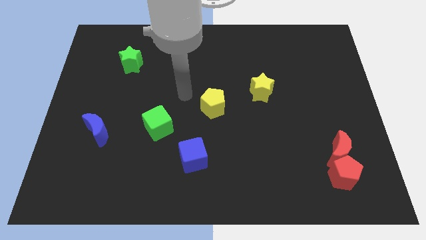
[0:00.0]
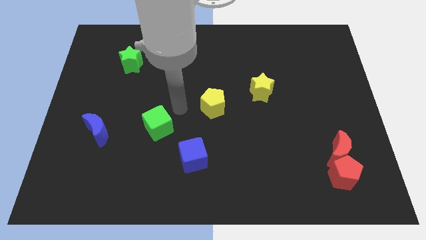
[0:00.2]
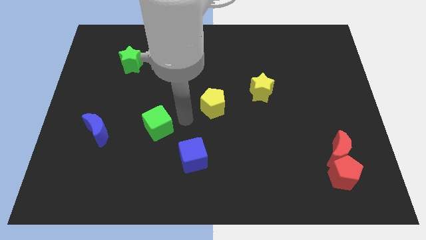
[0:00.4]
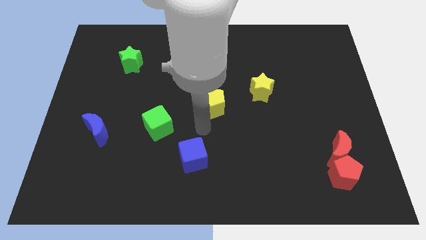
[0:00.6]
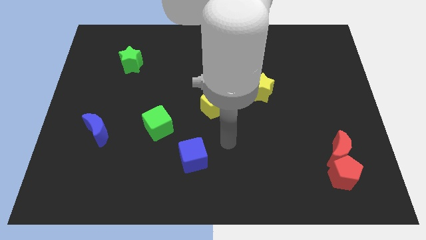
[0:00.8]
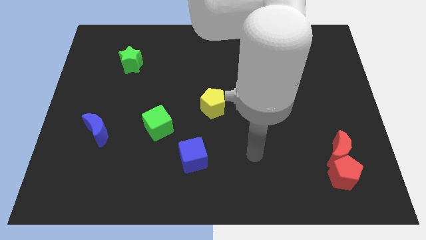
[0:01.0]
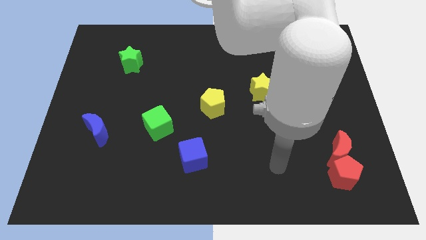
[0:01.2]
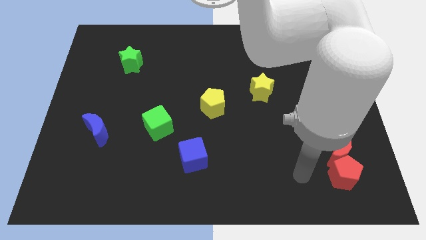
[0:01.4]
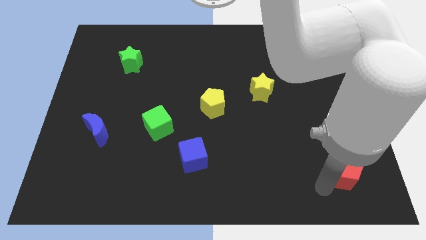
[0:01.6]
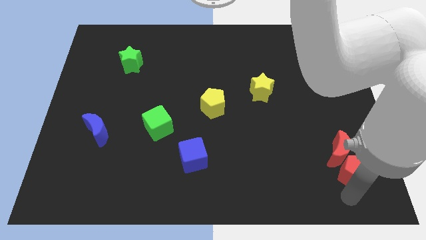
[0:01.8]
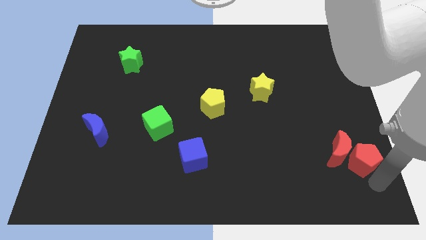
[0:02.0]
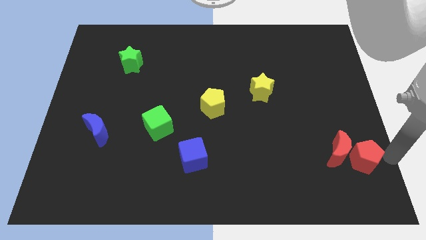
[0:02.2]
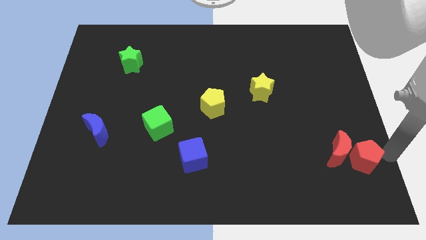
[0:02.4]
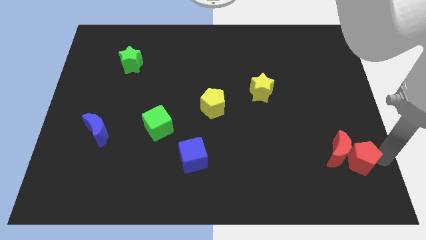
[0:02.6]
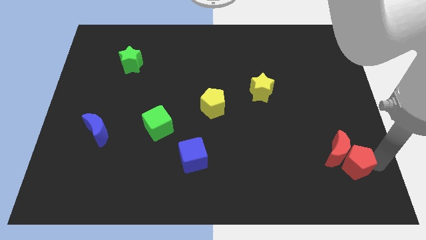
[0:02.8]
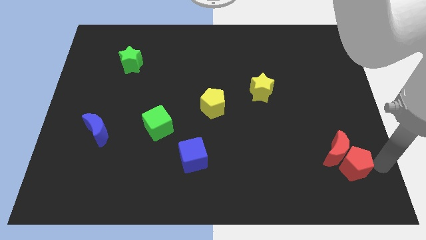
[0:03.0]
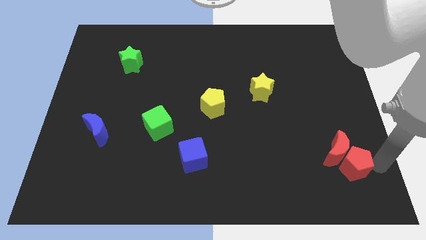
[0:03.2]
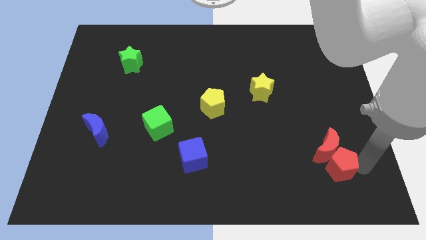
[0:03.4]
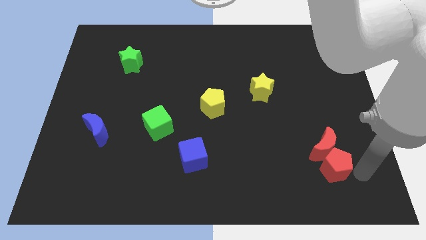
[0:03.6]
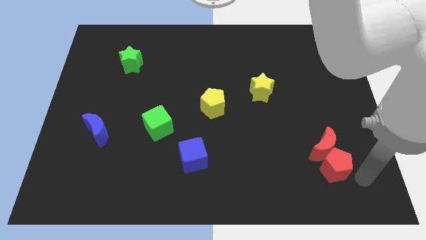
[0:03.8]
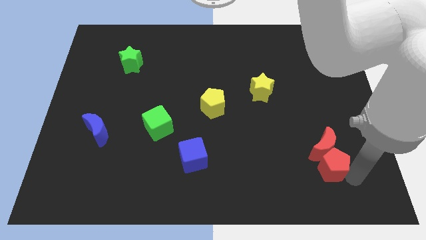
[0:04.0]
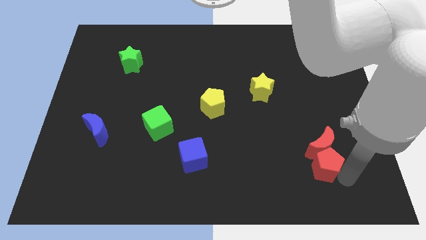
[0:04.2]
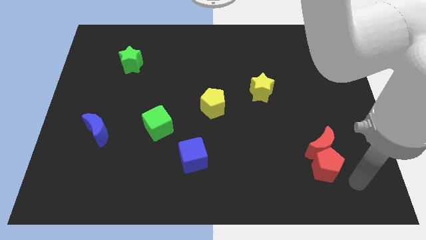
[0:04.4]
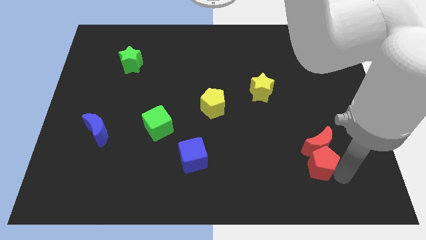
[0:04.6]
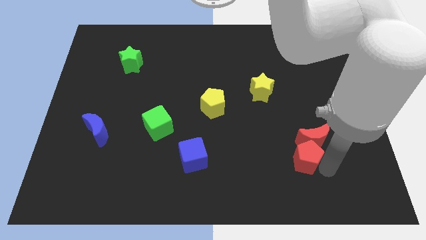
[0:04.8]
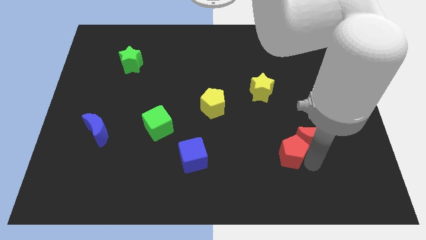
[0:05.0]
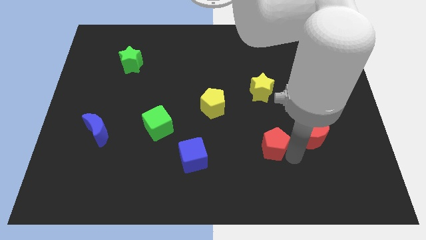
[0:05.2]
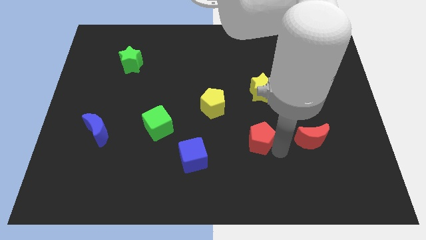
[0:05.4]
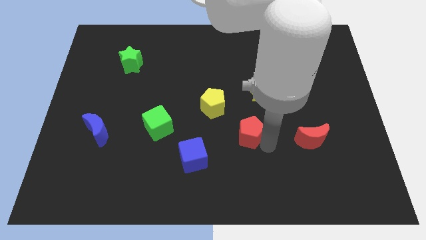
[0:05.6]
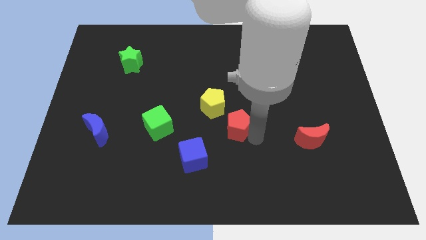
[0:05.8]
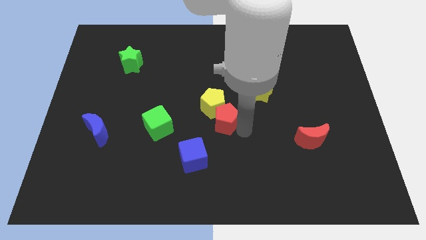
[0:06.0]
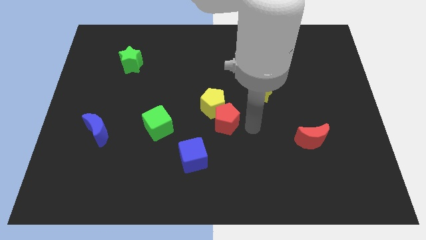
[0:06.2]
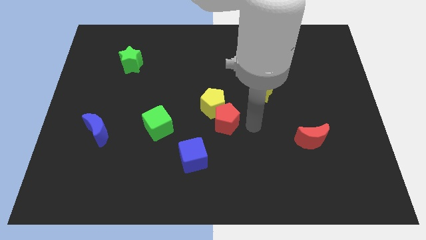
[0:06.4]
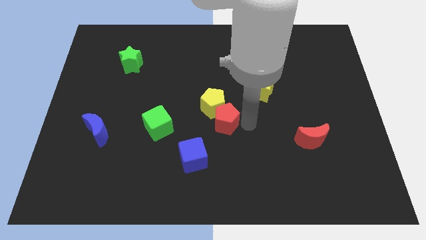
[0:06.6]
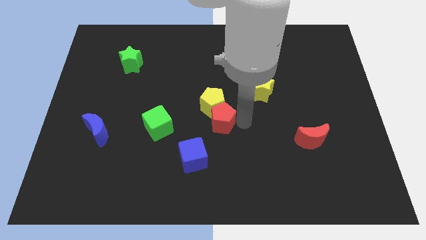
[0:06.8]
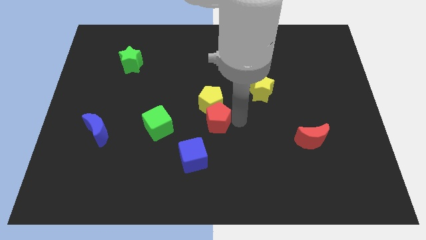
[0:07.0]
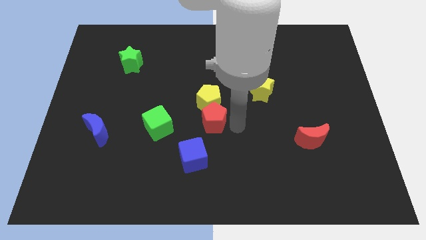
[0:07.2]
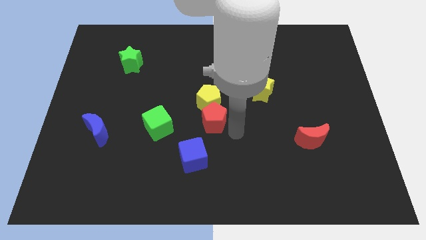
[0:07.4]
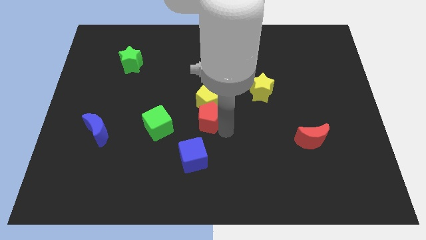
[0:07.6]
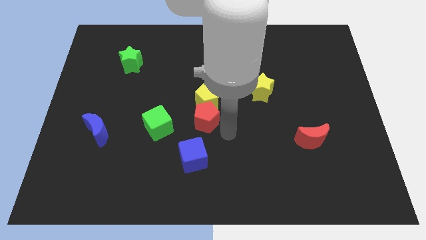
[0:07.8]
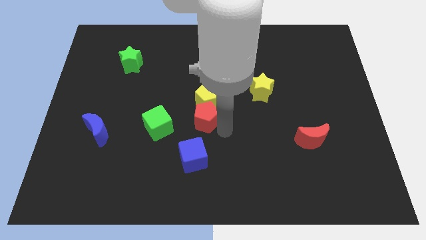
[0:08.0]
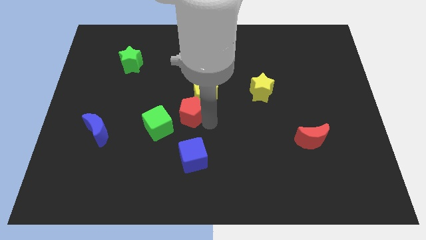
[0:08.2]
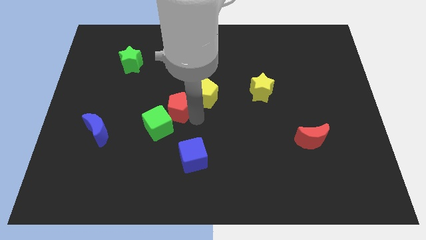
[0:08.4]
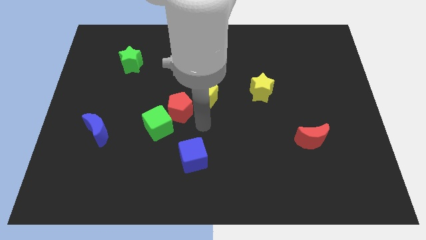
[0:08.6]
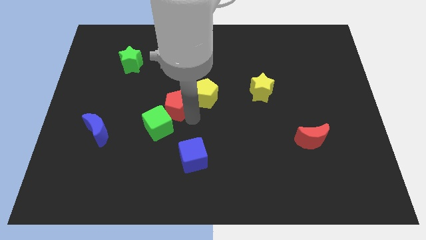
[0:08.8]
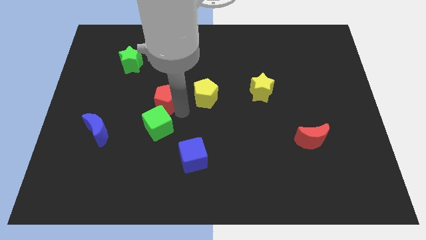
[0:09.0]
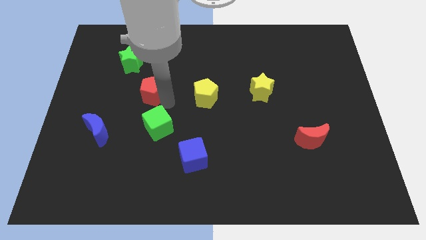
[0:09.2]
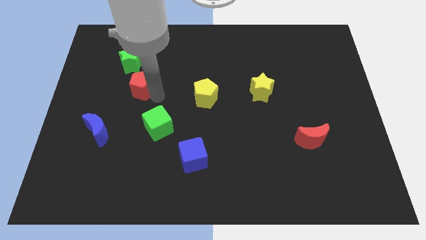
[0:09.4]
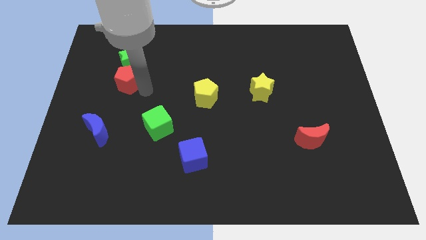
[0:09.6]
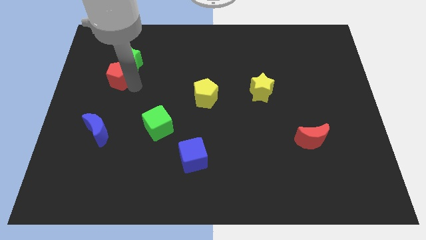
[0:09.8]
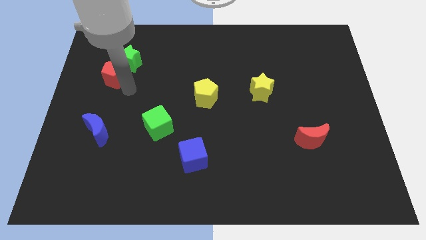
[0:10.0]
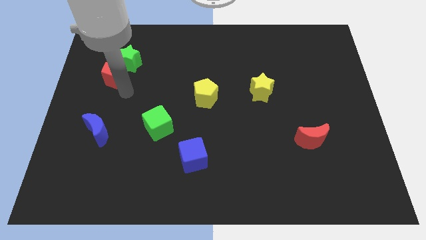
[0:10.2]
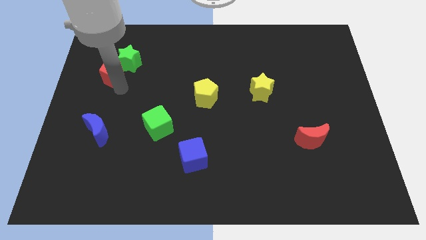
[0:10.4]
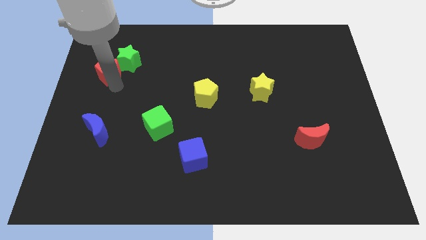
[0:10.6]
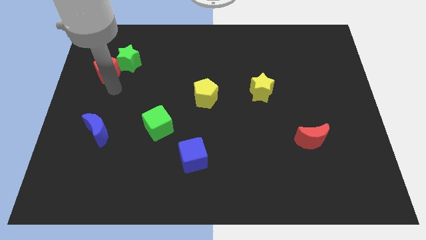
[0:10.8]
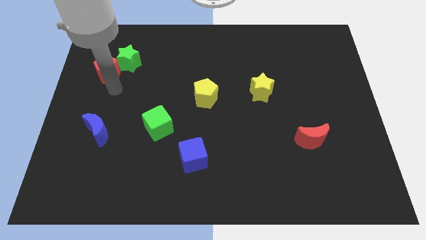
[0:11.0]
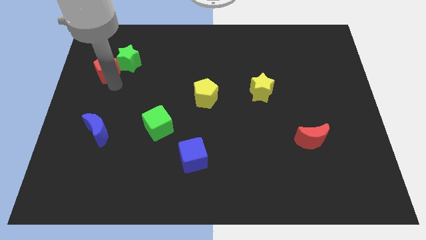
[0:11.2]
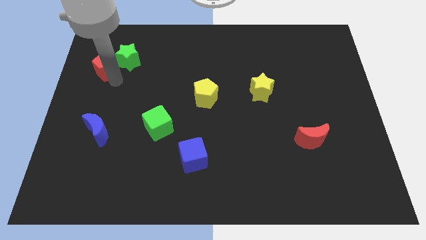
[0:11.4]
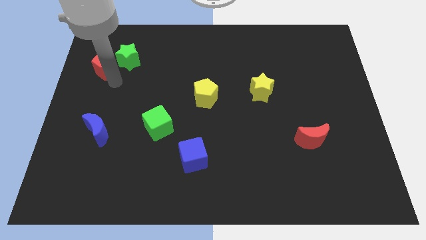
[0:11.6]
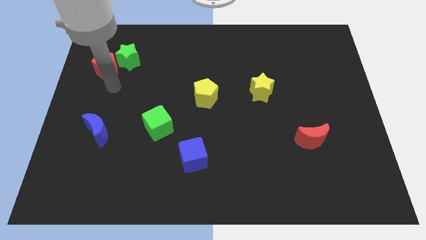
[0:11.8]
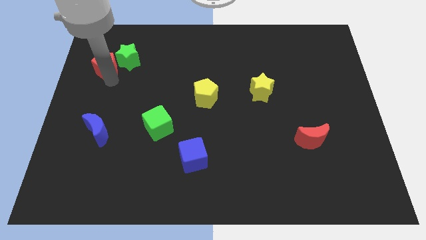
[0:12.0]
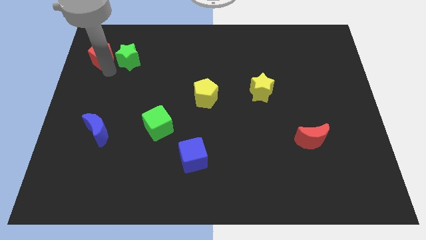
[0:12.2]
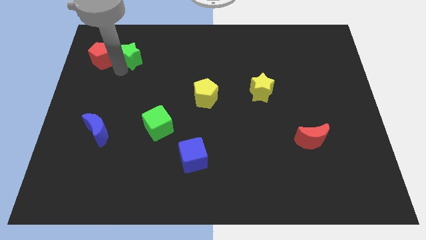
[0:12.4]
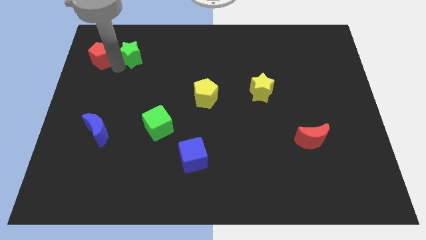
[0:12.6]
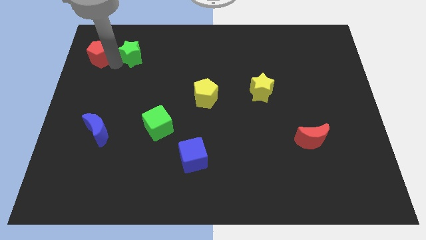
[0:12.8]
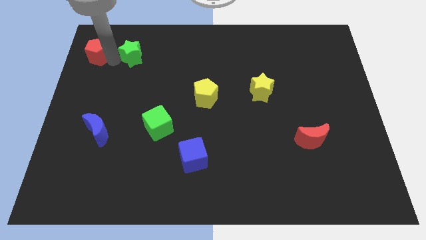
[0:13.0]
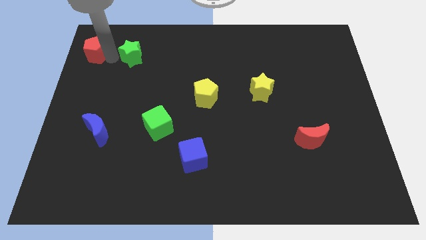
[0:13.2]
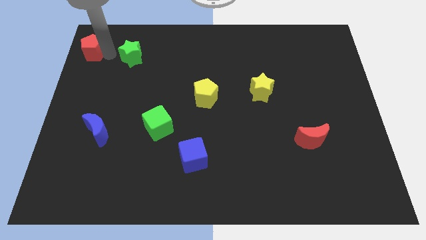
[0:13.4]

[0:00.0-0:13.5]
put the red pentagon to the top left of the board

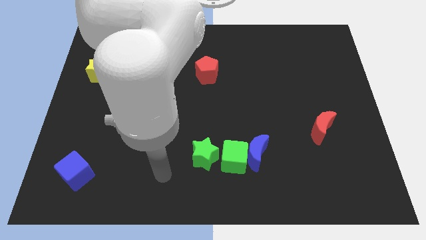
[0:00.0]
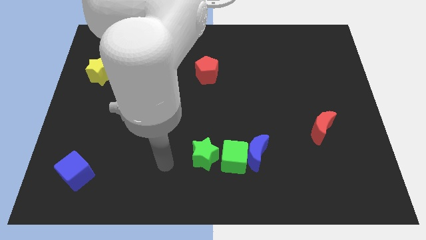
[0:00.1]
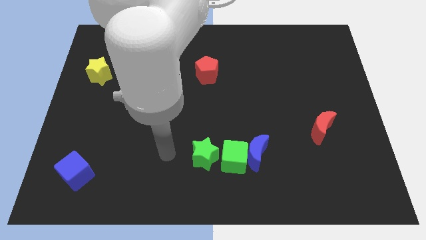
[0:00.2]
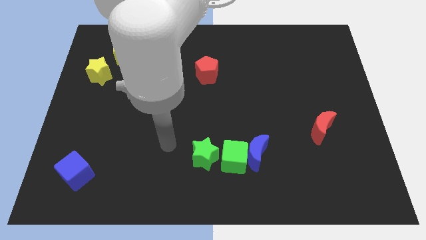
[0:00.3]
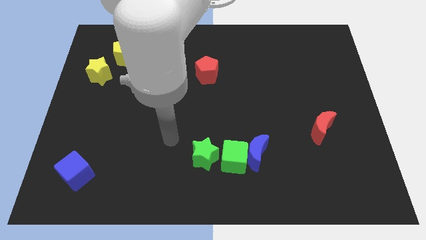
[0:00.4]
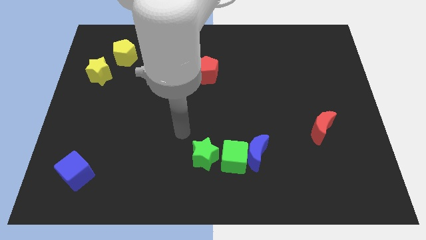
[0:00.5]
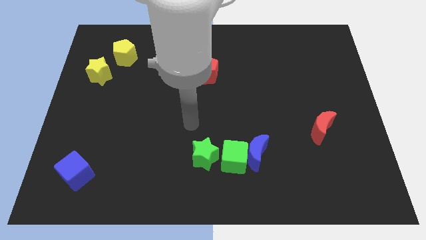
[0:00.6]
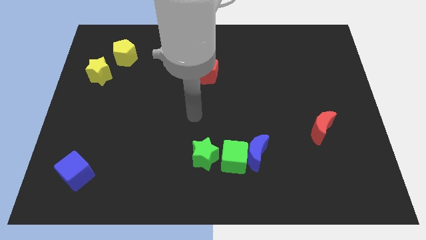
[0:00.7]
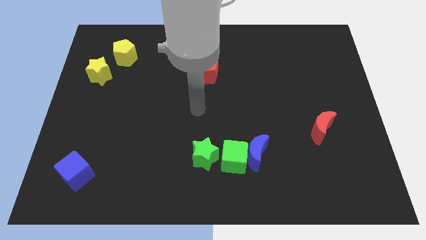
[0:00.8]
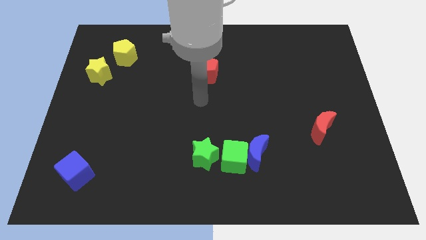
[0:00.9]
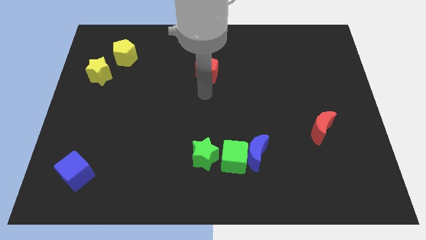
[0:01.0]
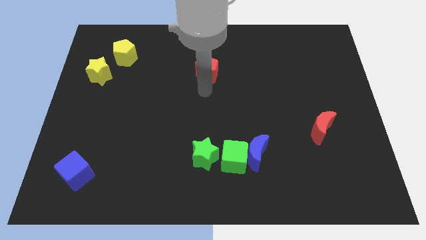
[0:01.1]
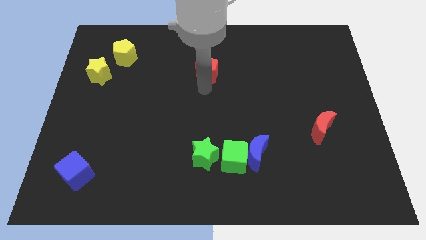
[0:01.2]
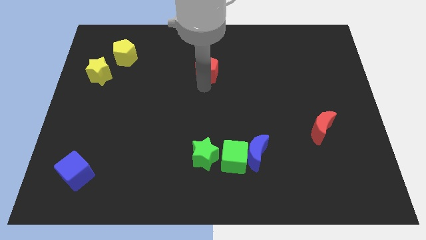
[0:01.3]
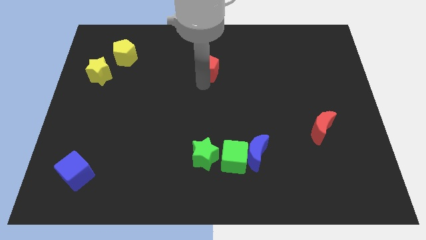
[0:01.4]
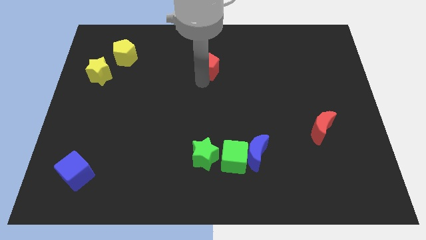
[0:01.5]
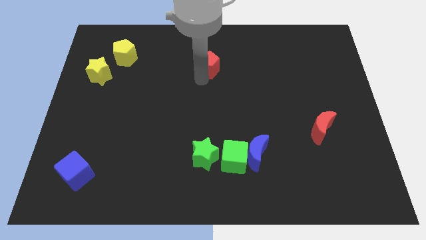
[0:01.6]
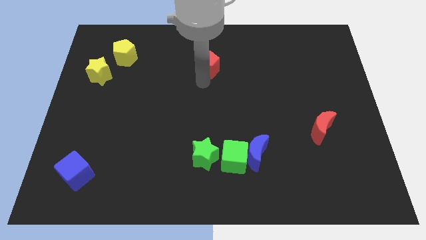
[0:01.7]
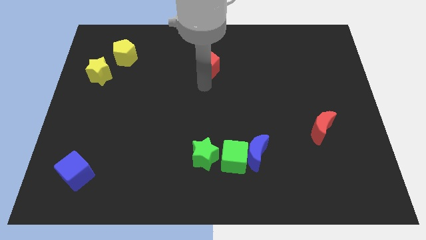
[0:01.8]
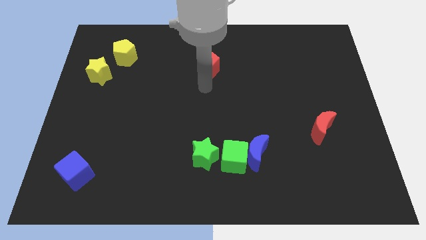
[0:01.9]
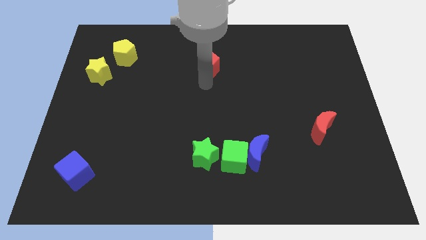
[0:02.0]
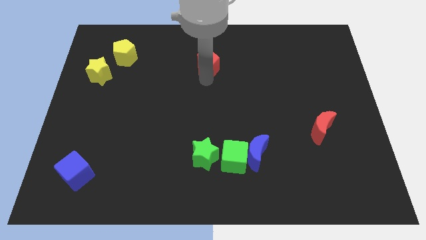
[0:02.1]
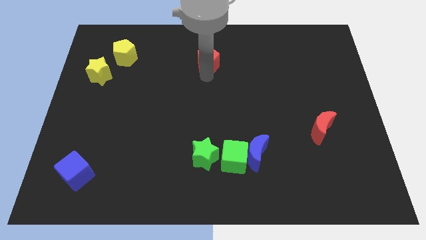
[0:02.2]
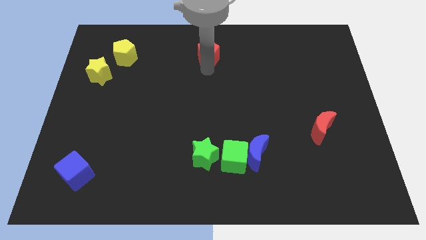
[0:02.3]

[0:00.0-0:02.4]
slide the red pentagon to the towards your base
